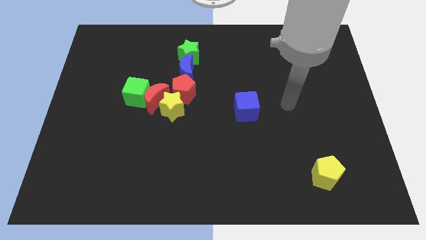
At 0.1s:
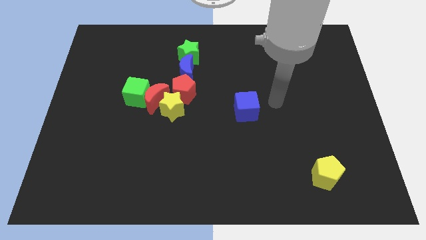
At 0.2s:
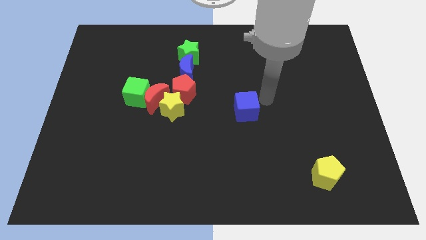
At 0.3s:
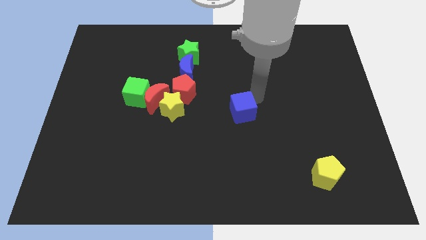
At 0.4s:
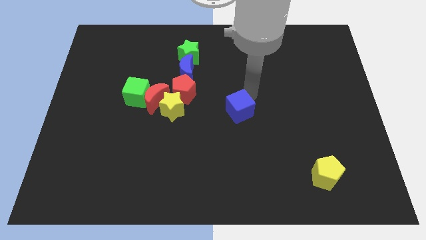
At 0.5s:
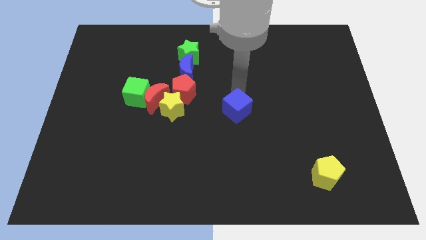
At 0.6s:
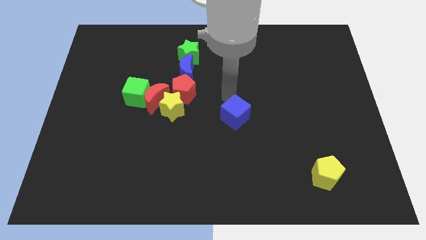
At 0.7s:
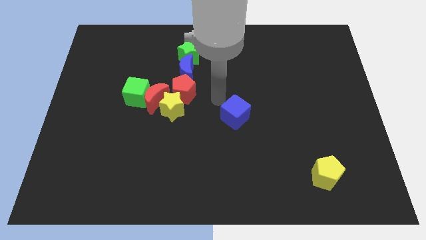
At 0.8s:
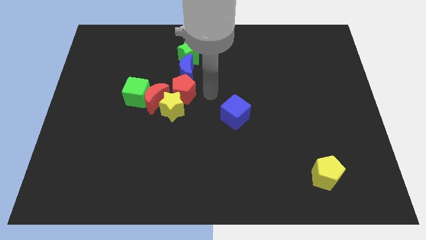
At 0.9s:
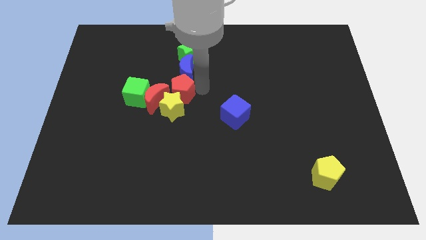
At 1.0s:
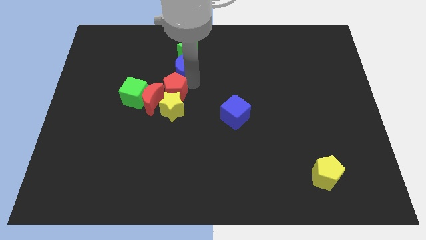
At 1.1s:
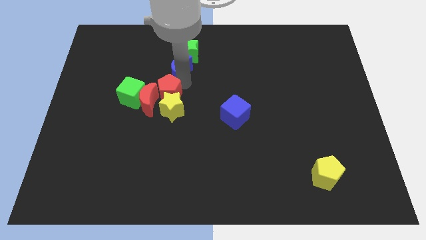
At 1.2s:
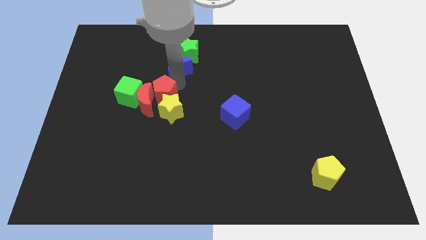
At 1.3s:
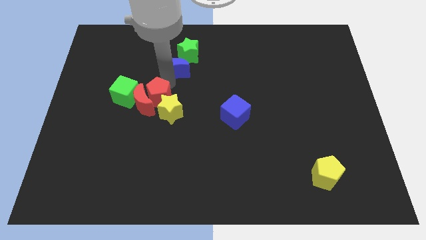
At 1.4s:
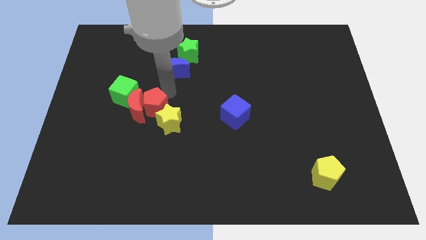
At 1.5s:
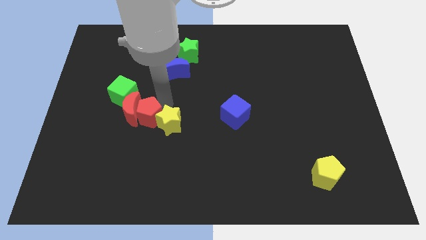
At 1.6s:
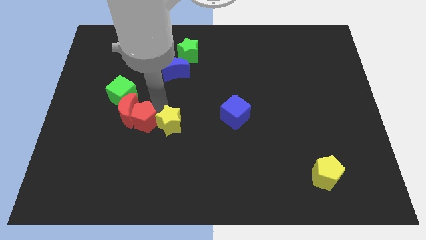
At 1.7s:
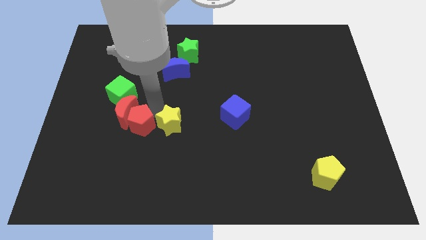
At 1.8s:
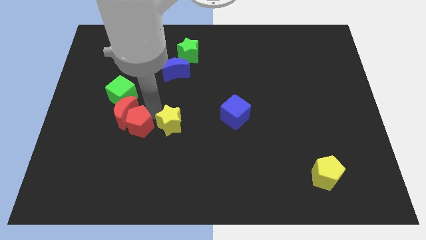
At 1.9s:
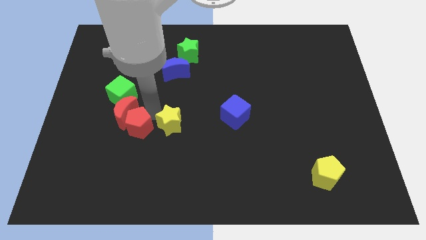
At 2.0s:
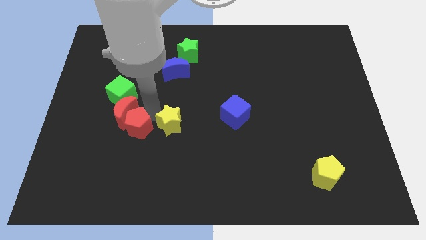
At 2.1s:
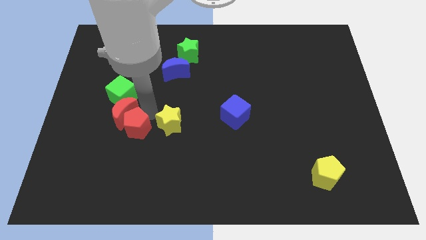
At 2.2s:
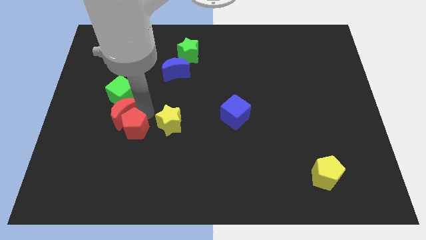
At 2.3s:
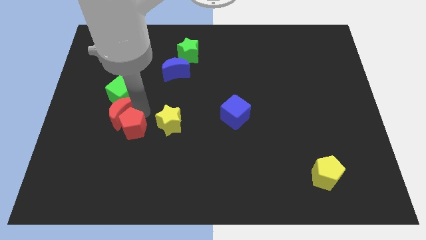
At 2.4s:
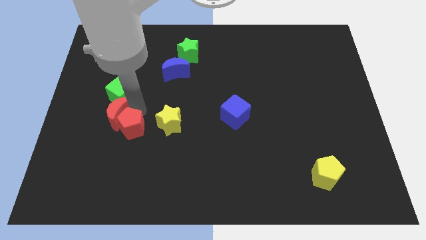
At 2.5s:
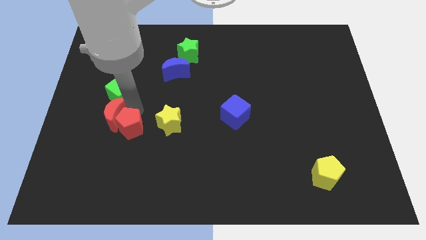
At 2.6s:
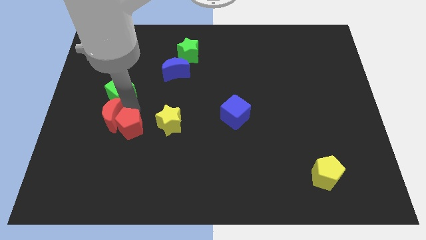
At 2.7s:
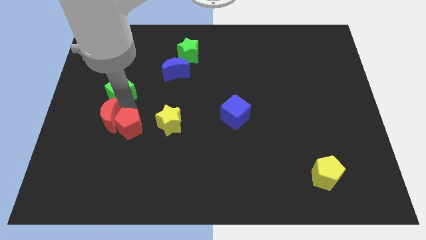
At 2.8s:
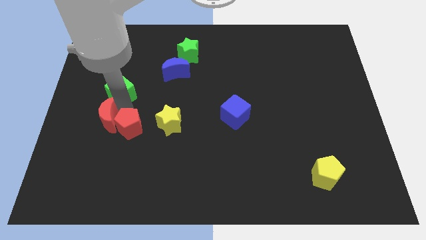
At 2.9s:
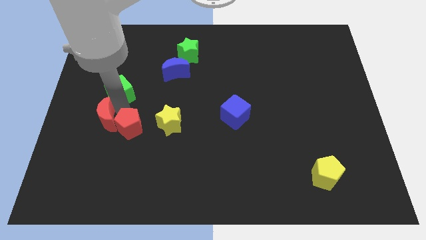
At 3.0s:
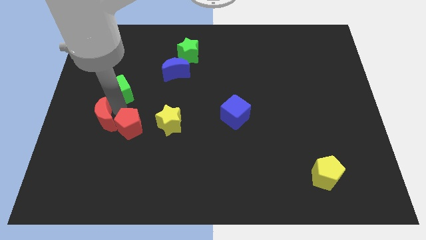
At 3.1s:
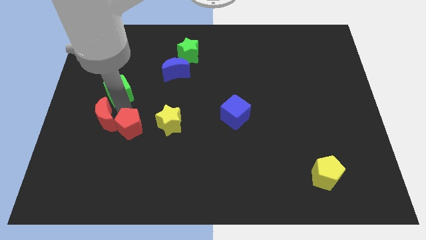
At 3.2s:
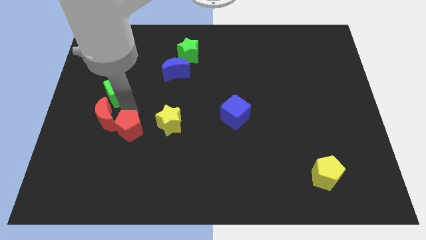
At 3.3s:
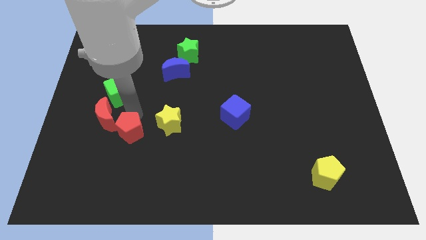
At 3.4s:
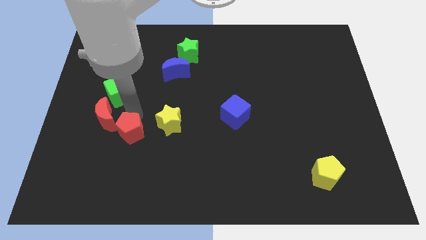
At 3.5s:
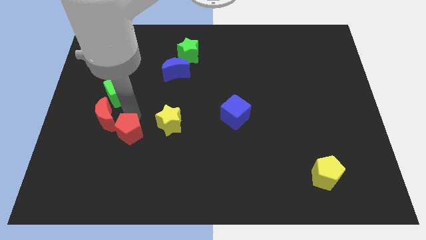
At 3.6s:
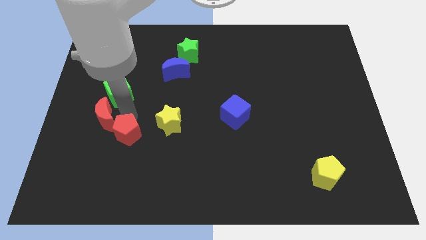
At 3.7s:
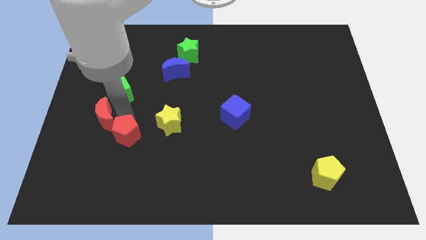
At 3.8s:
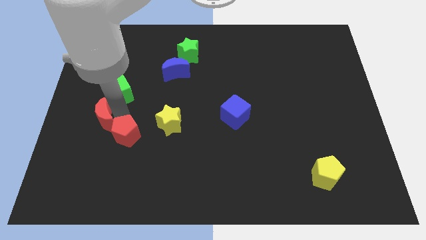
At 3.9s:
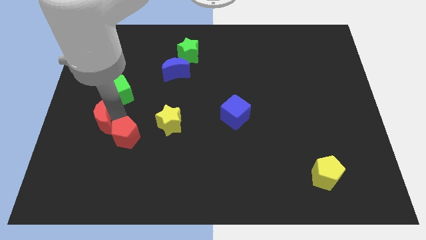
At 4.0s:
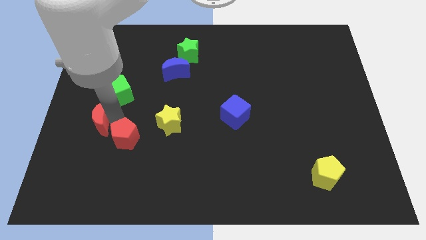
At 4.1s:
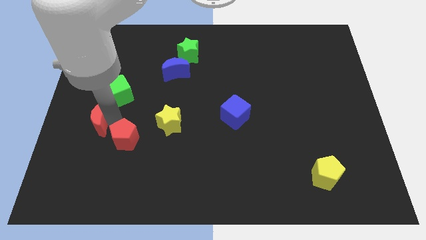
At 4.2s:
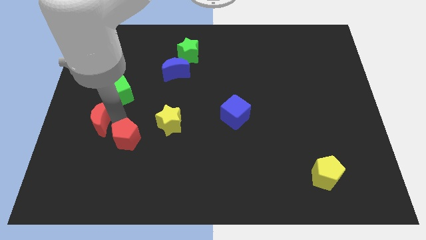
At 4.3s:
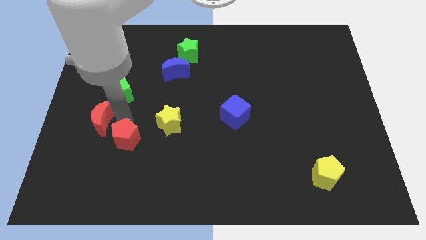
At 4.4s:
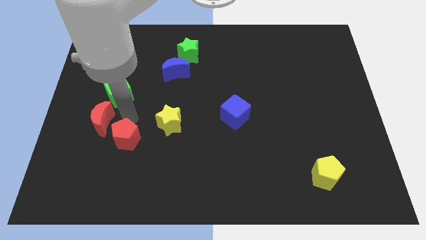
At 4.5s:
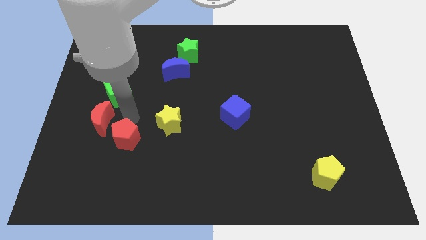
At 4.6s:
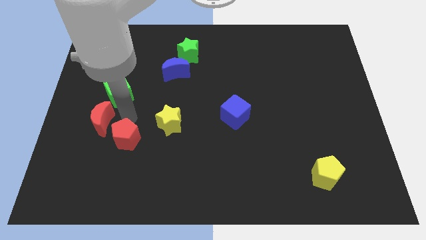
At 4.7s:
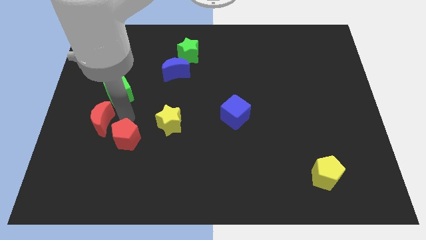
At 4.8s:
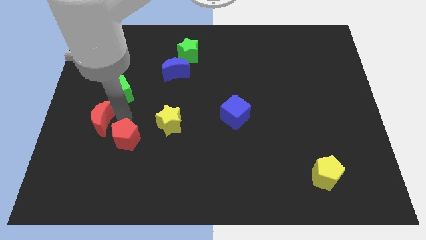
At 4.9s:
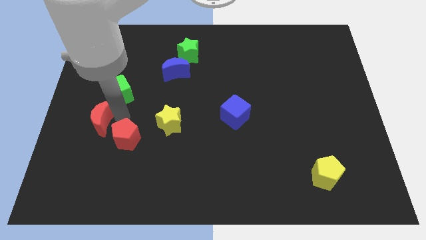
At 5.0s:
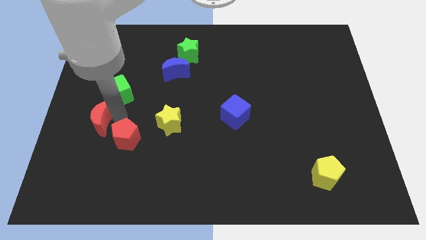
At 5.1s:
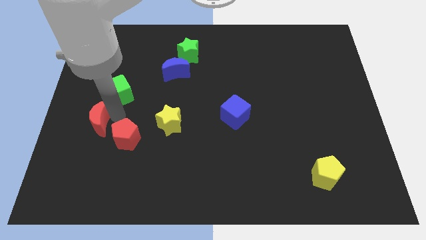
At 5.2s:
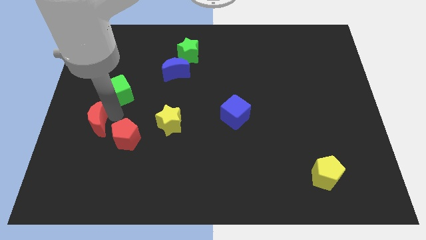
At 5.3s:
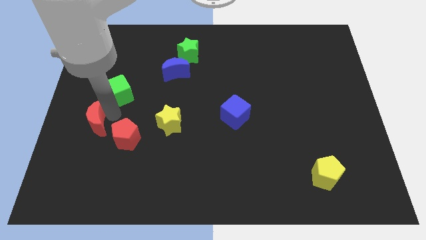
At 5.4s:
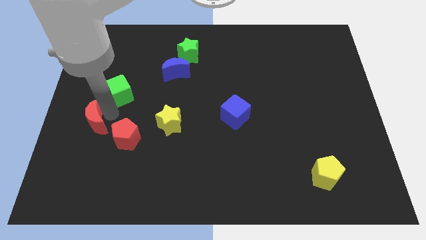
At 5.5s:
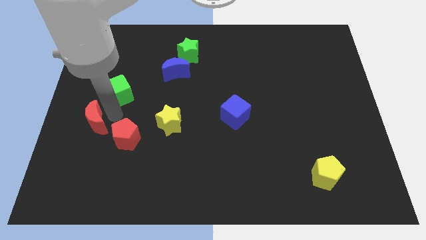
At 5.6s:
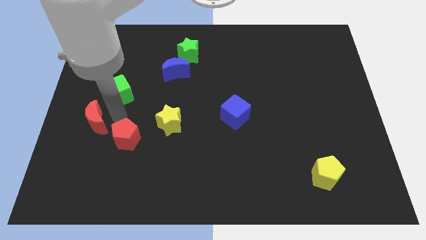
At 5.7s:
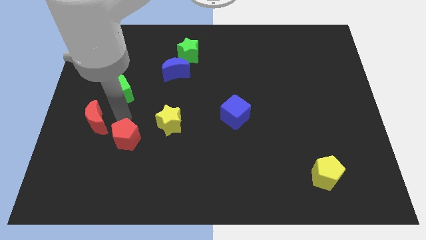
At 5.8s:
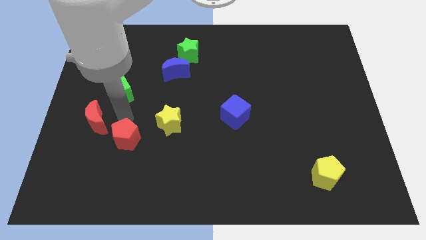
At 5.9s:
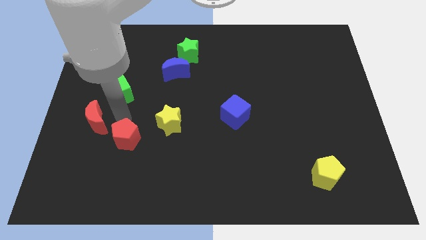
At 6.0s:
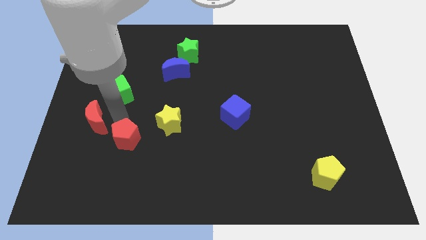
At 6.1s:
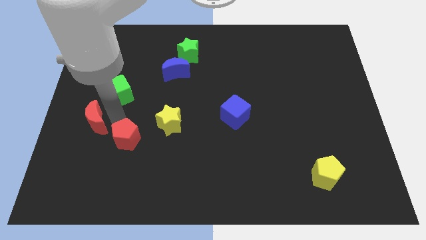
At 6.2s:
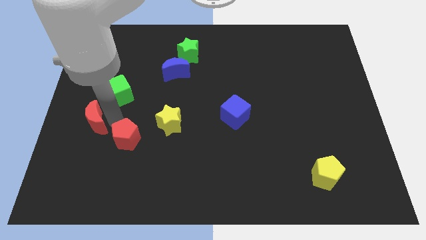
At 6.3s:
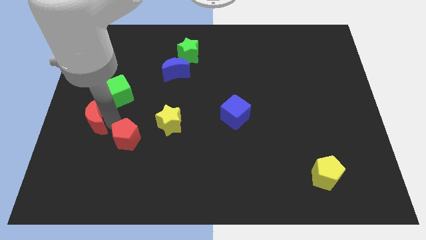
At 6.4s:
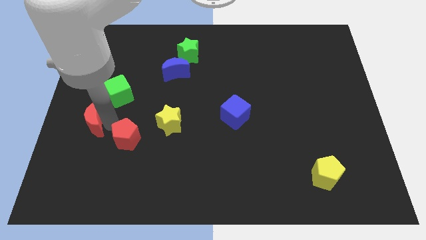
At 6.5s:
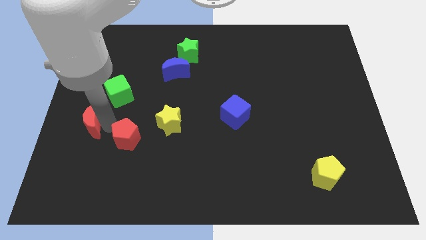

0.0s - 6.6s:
pull the red moon apart from the group of blocks

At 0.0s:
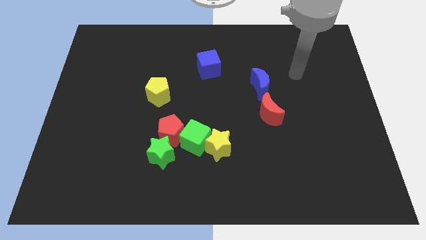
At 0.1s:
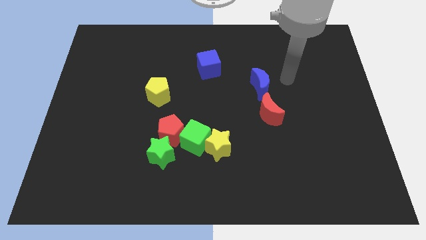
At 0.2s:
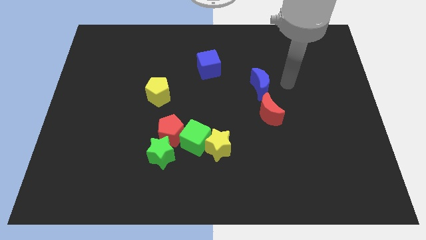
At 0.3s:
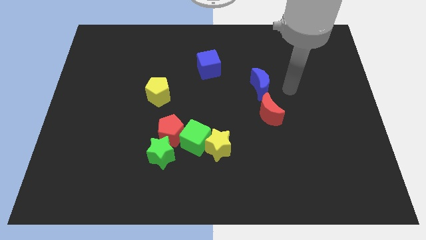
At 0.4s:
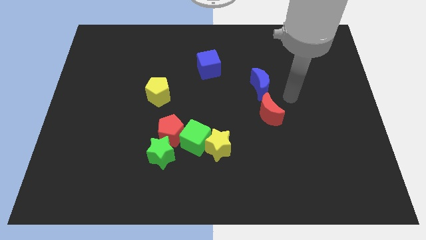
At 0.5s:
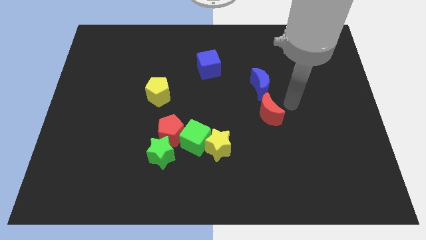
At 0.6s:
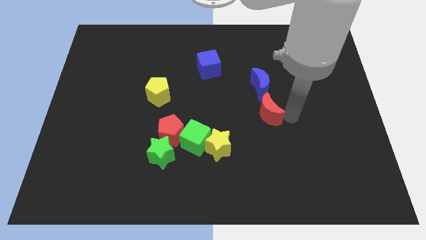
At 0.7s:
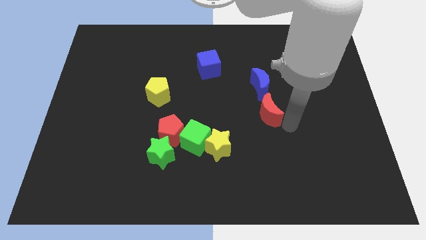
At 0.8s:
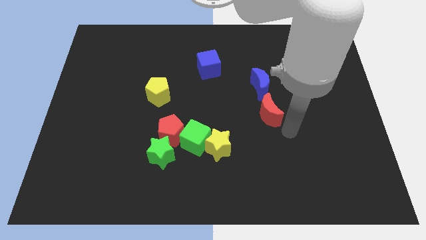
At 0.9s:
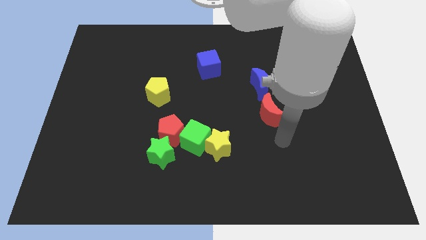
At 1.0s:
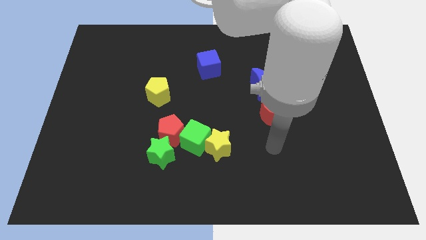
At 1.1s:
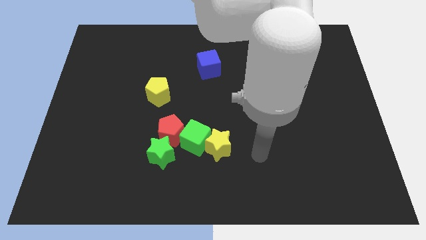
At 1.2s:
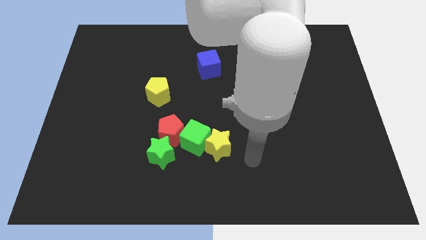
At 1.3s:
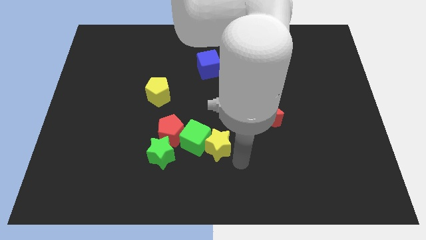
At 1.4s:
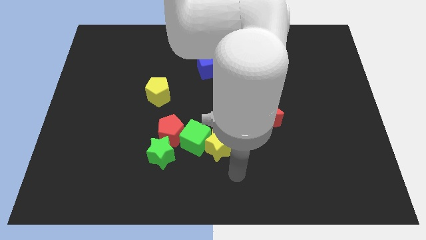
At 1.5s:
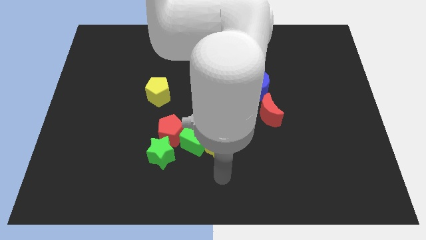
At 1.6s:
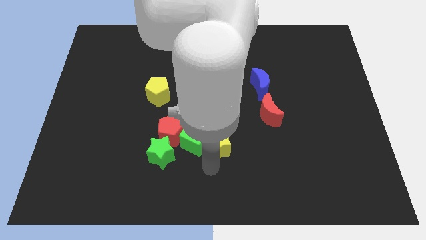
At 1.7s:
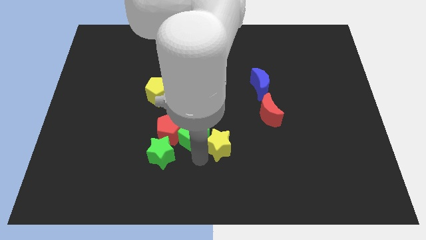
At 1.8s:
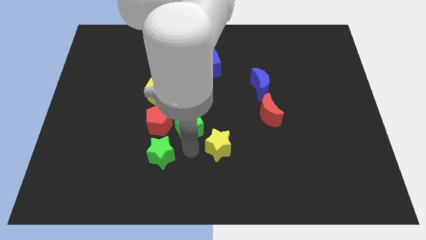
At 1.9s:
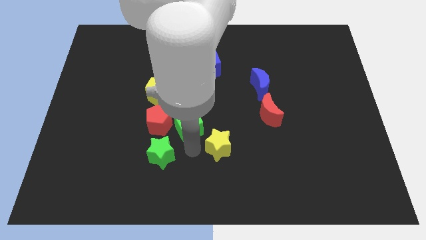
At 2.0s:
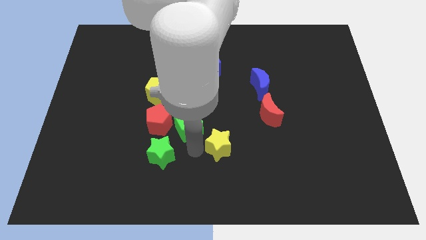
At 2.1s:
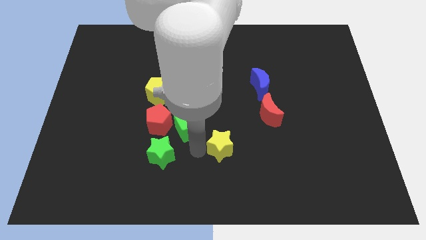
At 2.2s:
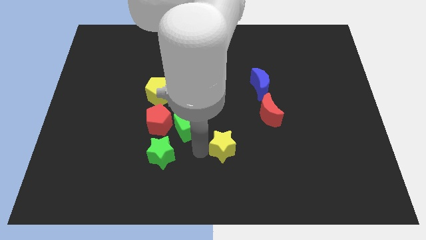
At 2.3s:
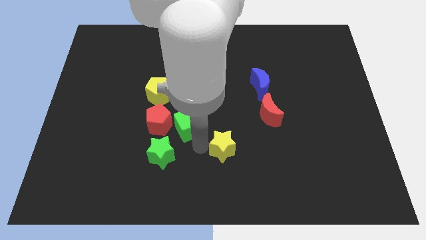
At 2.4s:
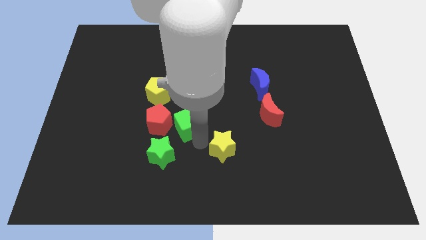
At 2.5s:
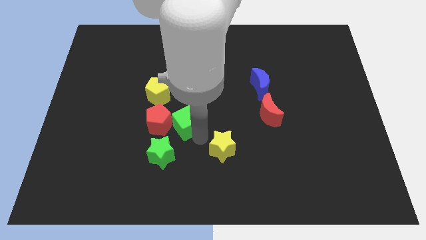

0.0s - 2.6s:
separate the yellow star from the green cube

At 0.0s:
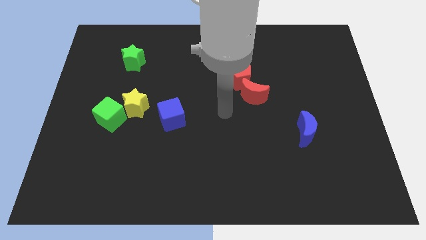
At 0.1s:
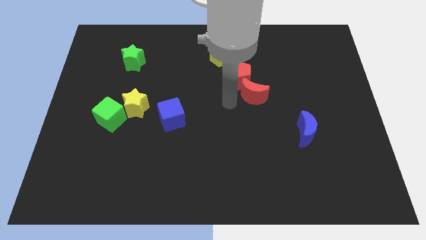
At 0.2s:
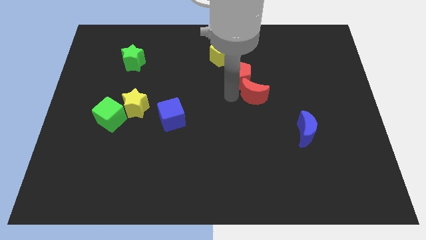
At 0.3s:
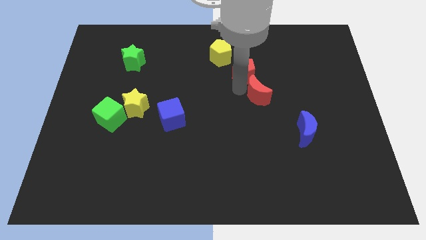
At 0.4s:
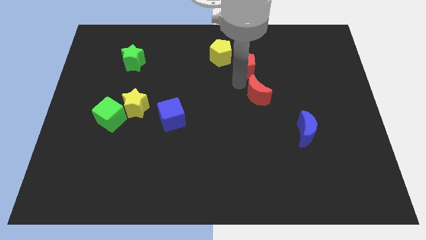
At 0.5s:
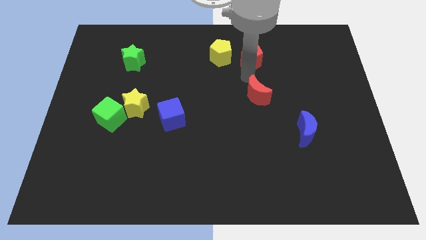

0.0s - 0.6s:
pull the red moon apart from the red pentagon
